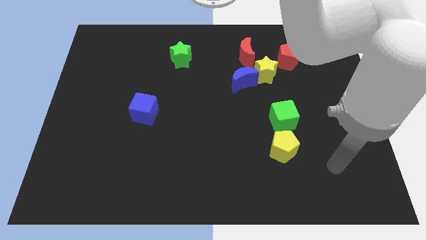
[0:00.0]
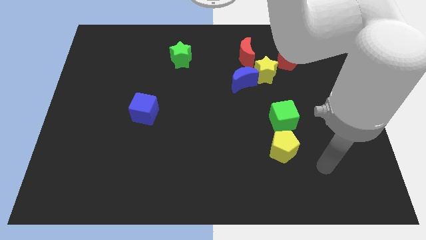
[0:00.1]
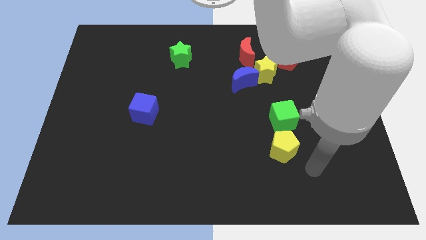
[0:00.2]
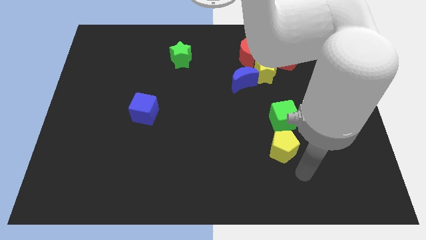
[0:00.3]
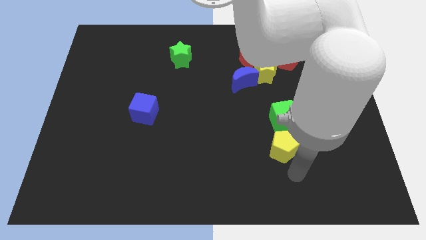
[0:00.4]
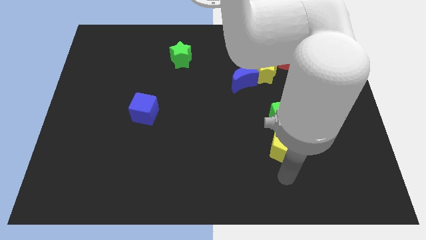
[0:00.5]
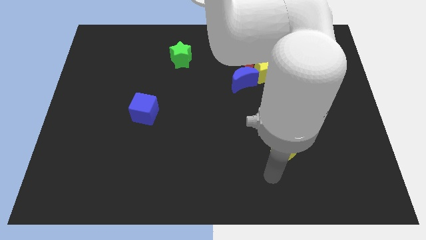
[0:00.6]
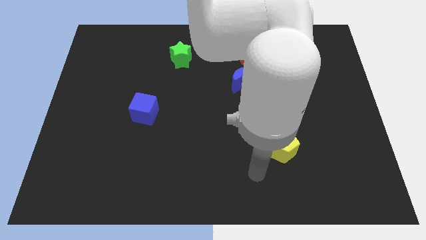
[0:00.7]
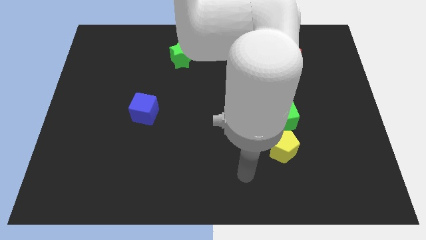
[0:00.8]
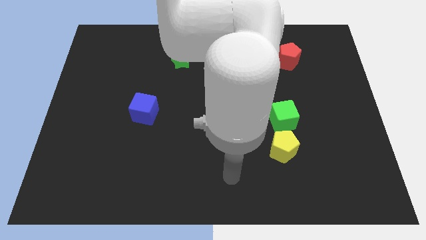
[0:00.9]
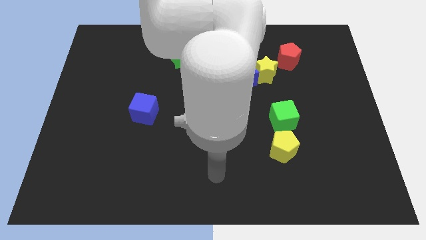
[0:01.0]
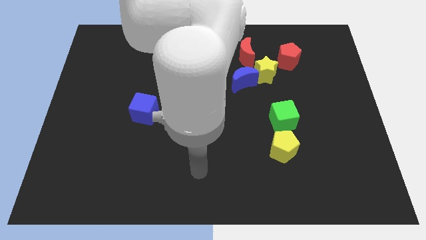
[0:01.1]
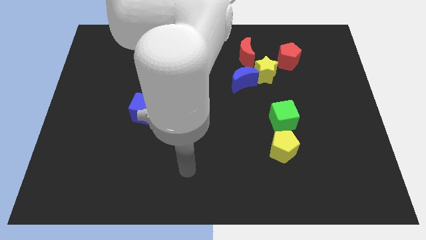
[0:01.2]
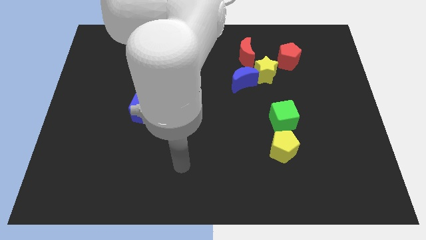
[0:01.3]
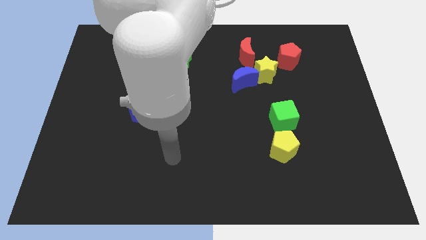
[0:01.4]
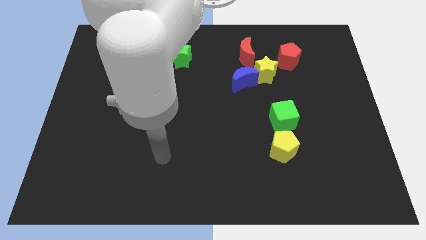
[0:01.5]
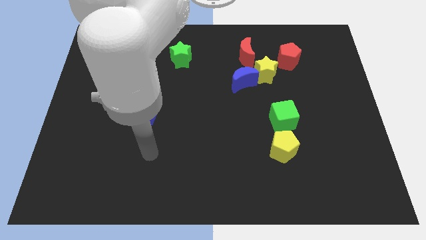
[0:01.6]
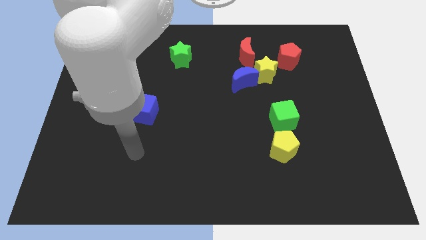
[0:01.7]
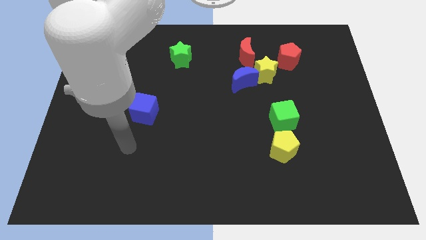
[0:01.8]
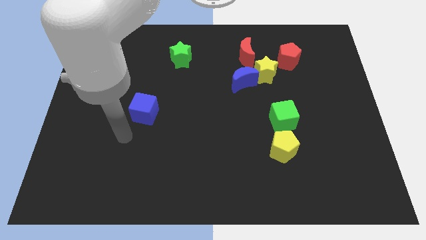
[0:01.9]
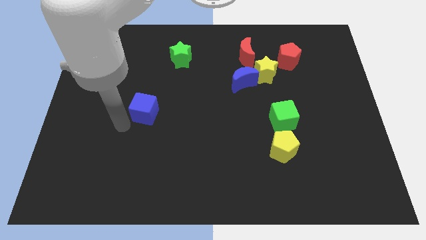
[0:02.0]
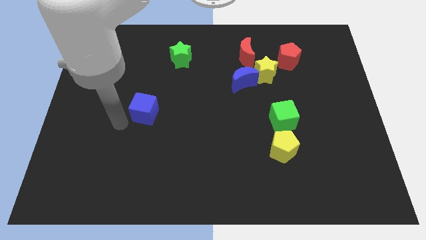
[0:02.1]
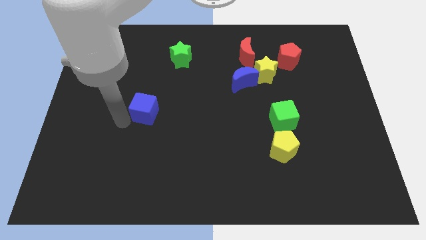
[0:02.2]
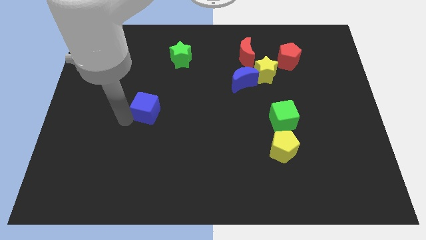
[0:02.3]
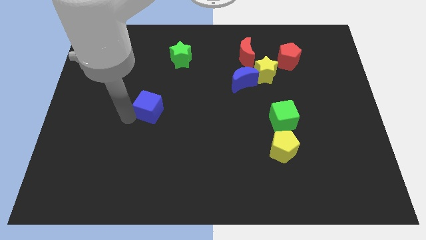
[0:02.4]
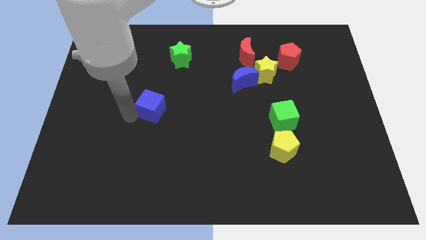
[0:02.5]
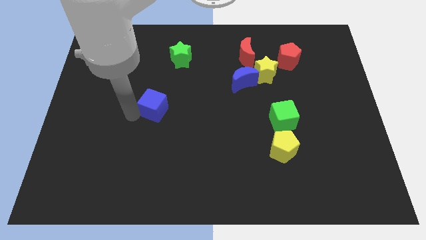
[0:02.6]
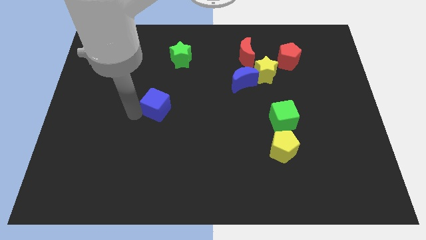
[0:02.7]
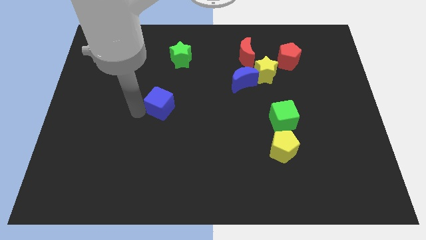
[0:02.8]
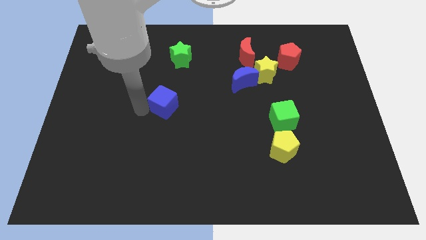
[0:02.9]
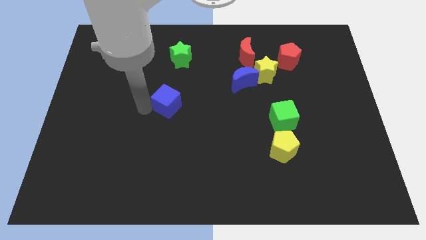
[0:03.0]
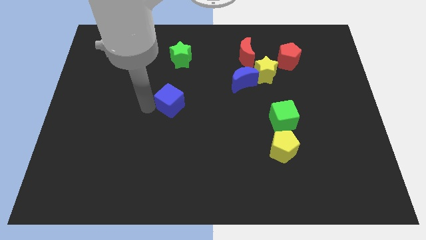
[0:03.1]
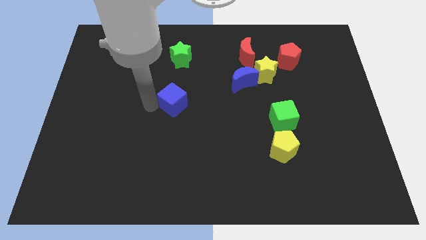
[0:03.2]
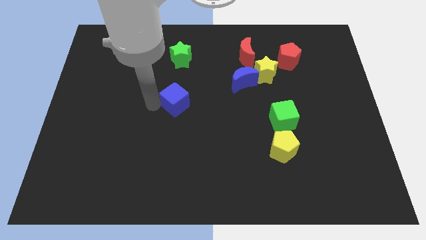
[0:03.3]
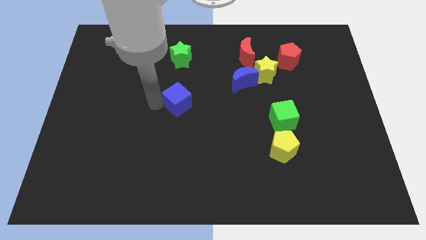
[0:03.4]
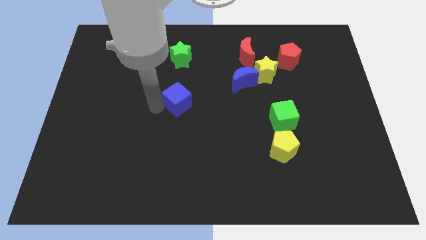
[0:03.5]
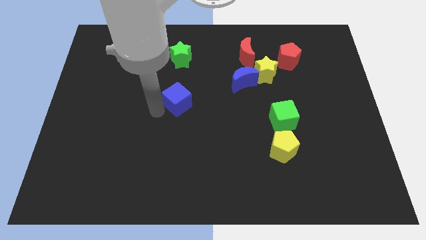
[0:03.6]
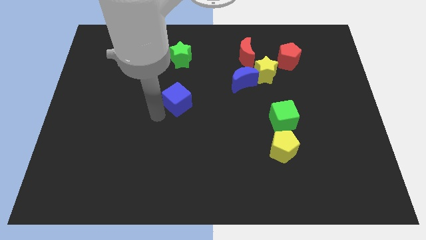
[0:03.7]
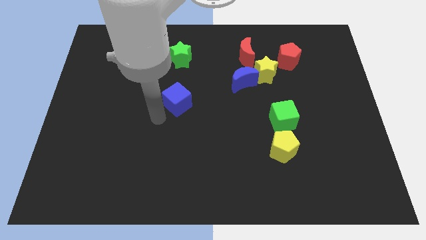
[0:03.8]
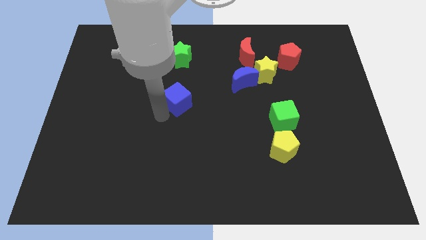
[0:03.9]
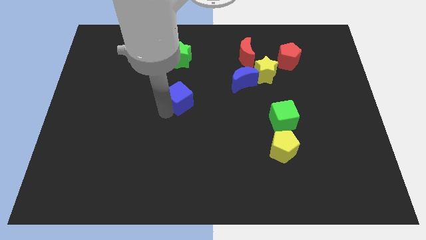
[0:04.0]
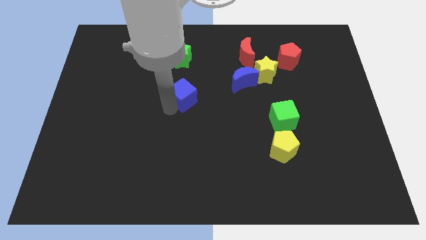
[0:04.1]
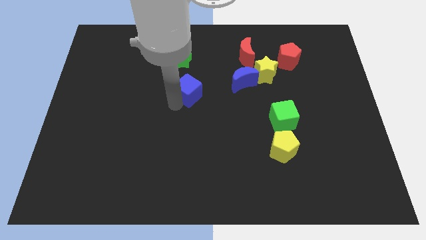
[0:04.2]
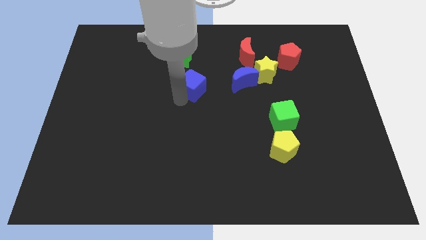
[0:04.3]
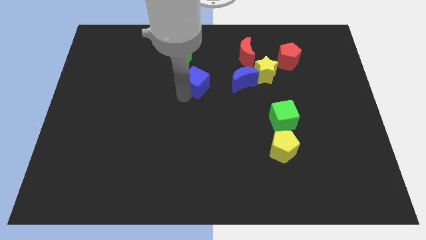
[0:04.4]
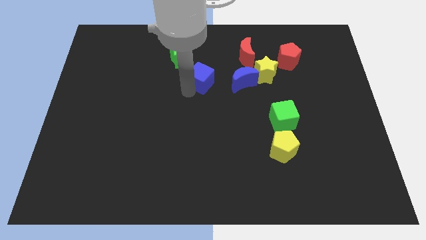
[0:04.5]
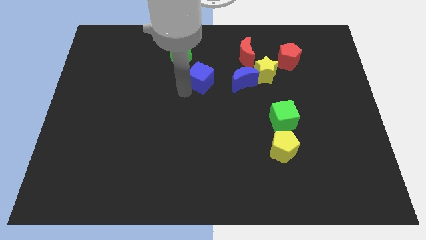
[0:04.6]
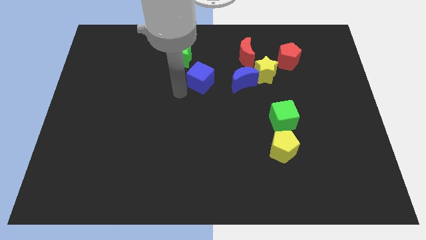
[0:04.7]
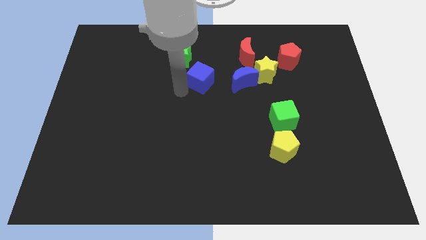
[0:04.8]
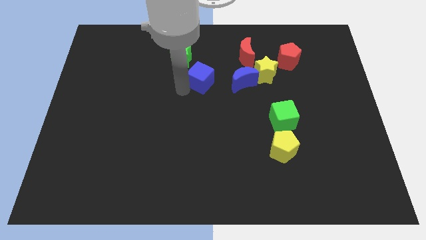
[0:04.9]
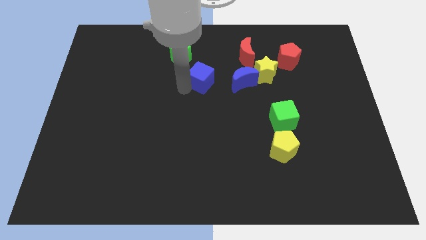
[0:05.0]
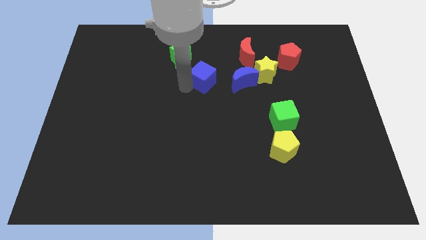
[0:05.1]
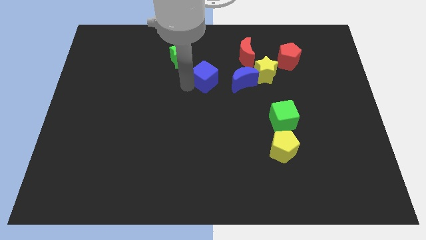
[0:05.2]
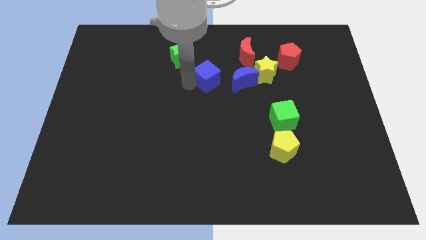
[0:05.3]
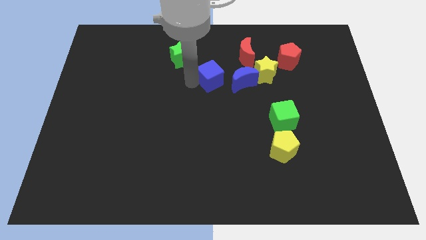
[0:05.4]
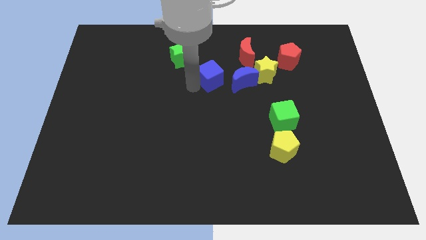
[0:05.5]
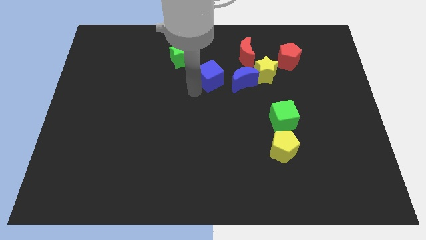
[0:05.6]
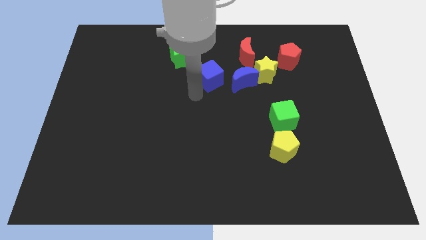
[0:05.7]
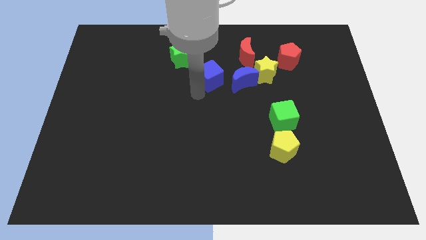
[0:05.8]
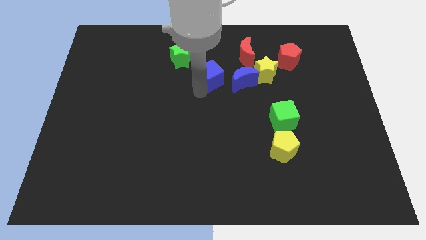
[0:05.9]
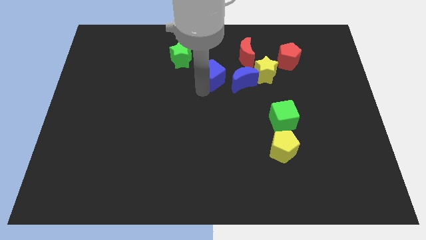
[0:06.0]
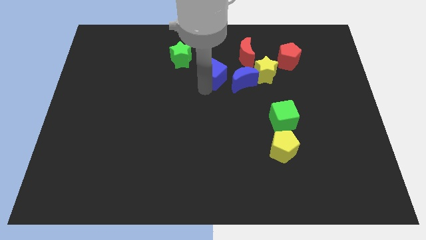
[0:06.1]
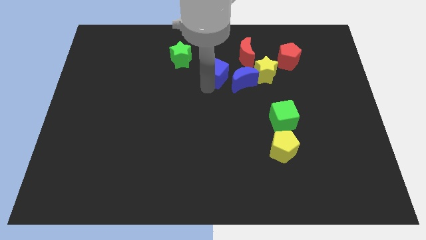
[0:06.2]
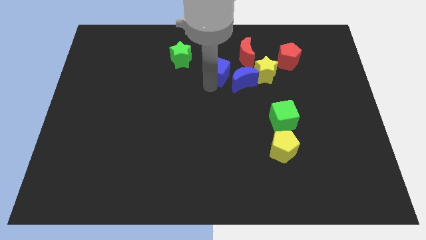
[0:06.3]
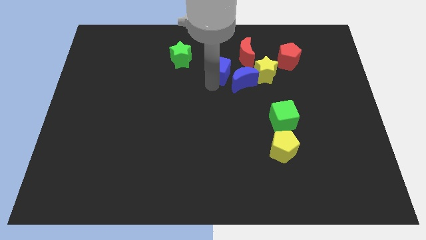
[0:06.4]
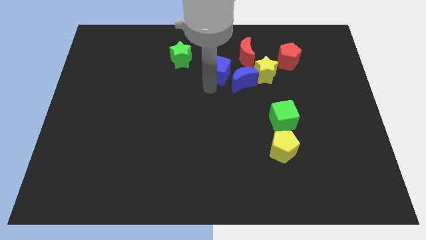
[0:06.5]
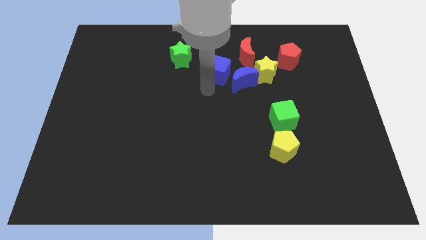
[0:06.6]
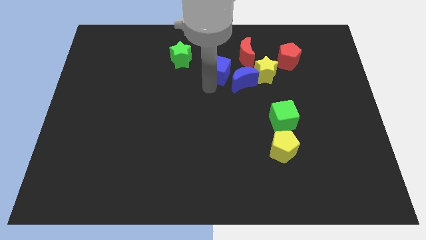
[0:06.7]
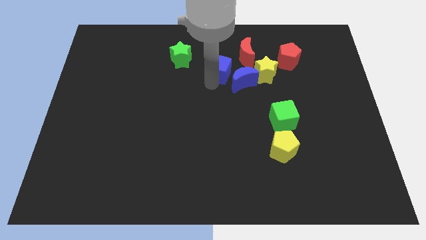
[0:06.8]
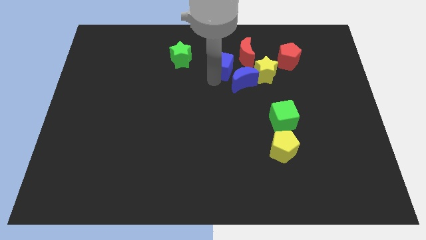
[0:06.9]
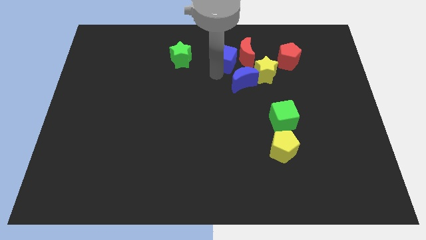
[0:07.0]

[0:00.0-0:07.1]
slide the blue cube close to the red moon

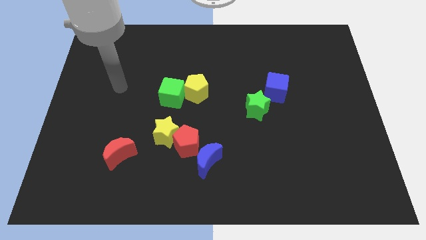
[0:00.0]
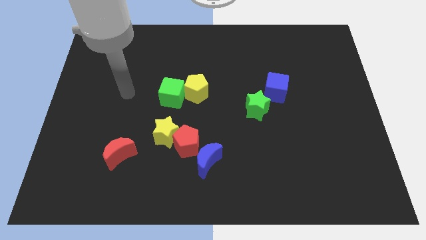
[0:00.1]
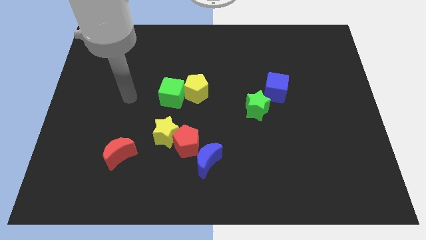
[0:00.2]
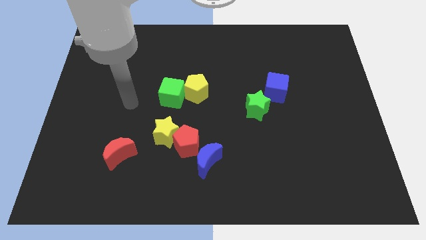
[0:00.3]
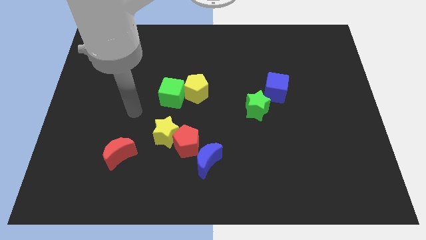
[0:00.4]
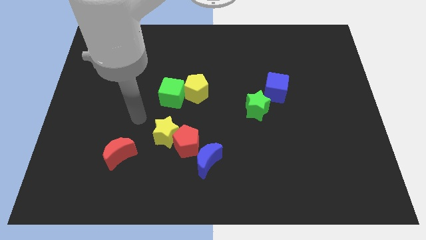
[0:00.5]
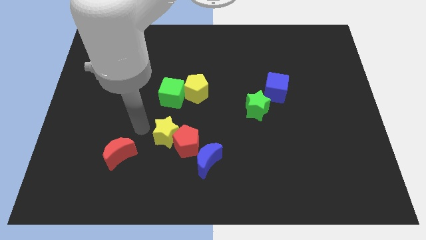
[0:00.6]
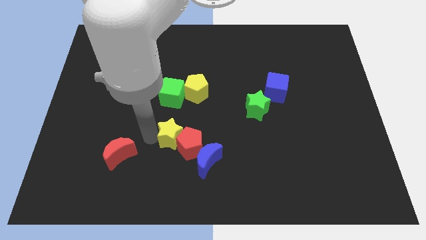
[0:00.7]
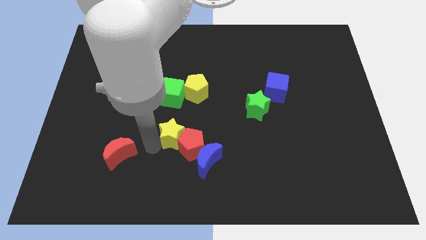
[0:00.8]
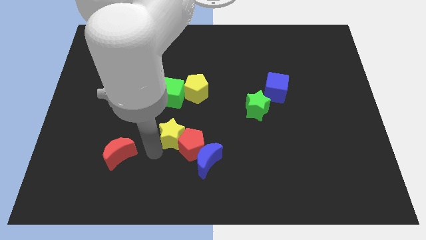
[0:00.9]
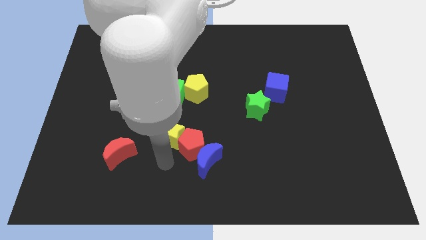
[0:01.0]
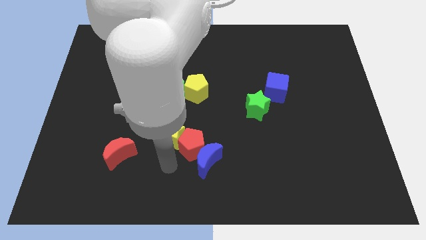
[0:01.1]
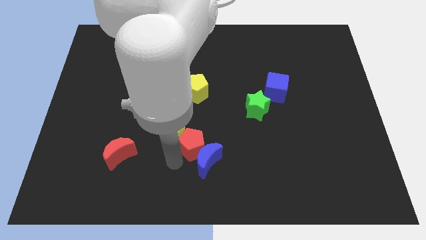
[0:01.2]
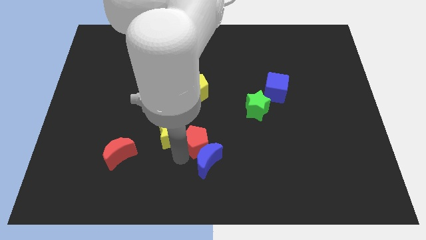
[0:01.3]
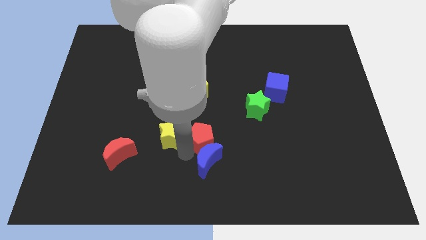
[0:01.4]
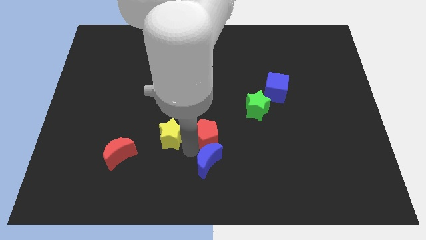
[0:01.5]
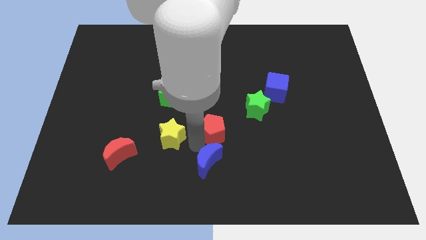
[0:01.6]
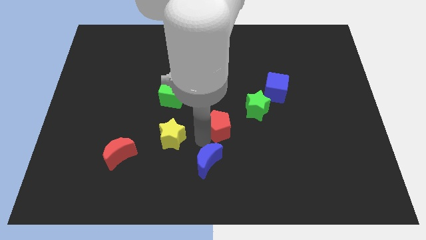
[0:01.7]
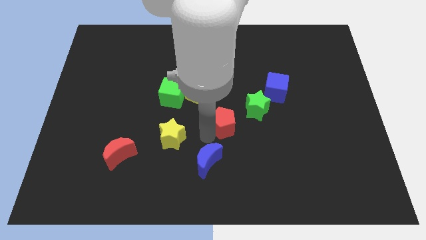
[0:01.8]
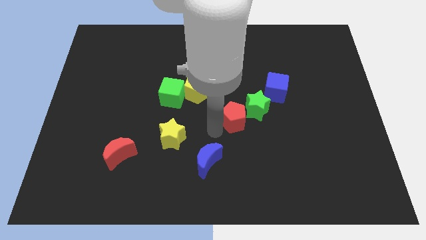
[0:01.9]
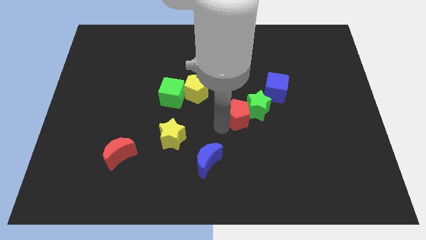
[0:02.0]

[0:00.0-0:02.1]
push the red pentagon close to the green star
